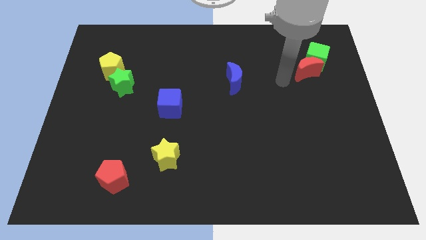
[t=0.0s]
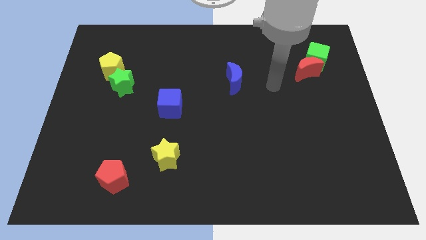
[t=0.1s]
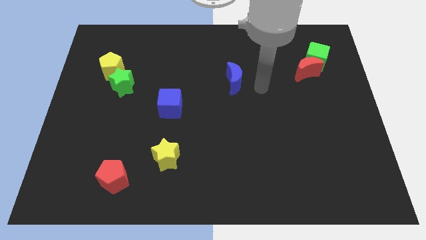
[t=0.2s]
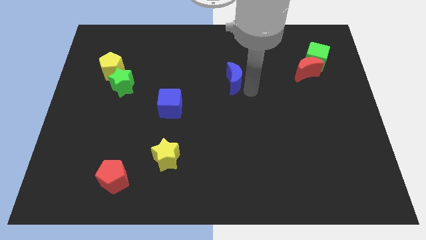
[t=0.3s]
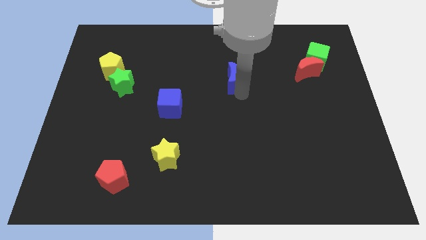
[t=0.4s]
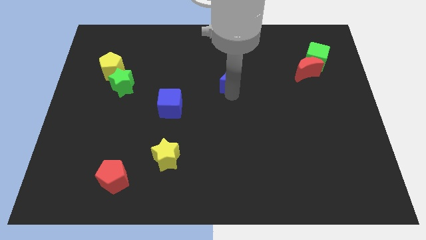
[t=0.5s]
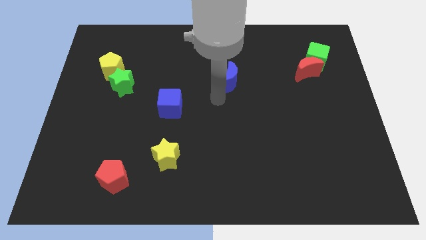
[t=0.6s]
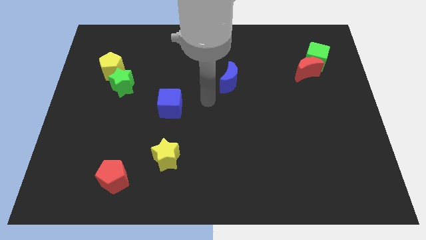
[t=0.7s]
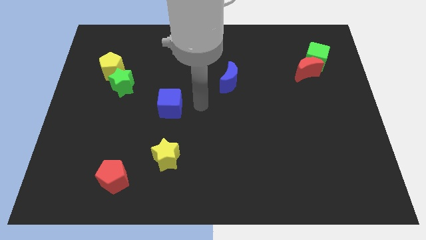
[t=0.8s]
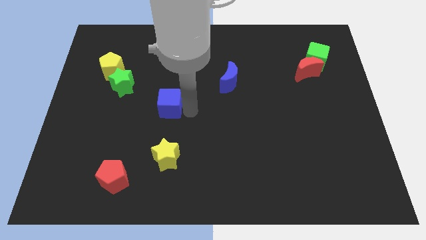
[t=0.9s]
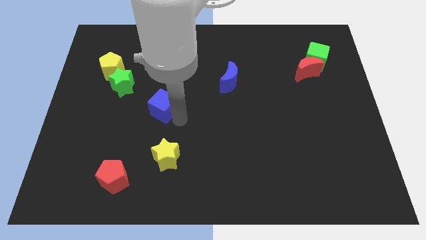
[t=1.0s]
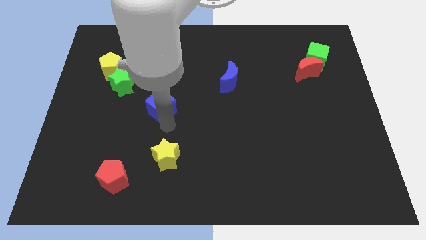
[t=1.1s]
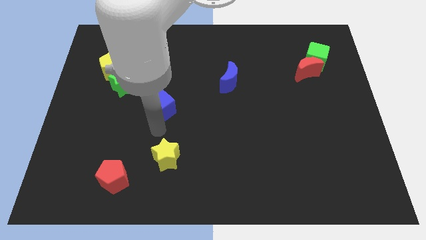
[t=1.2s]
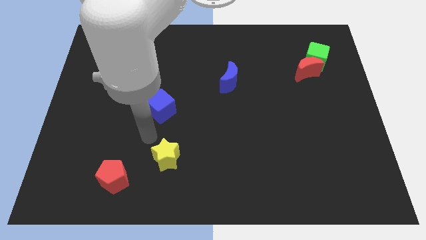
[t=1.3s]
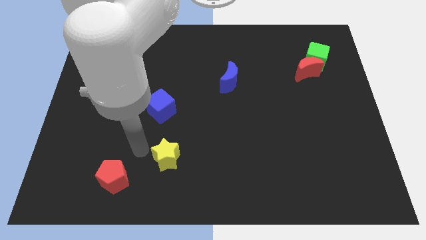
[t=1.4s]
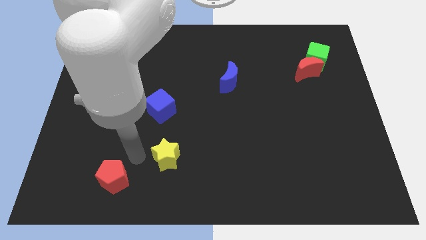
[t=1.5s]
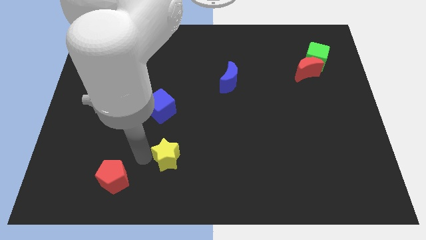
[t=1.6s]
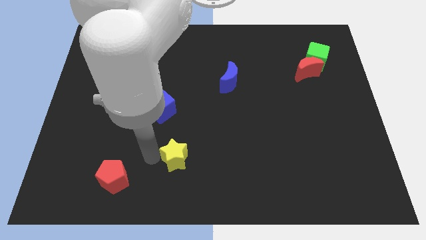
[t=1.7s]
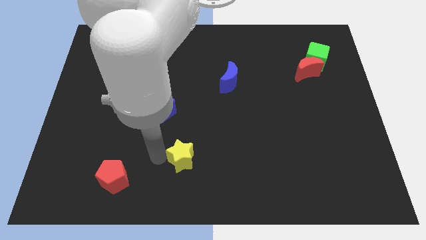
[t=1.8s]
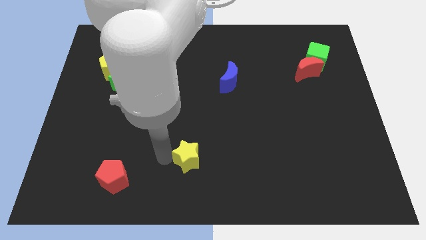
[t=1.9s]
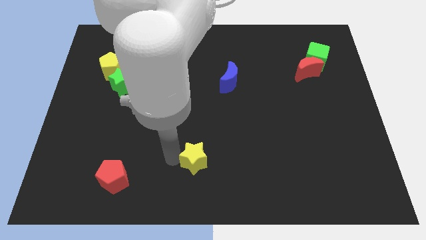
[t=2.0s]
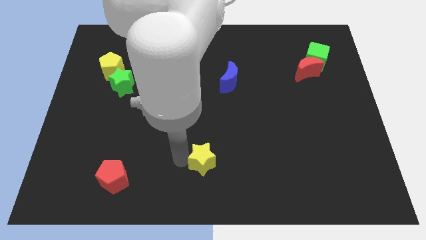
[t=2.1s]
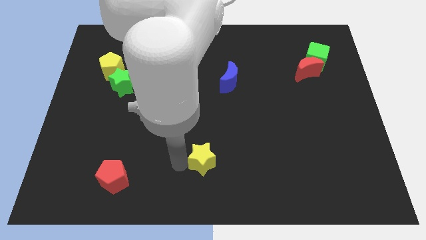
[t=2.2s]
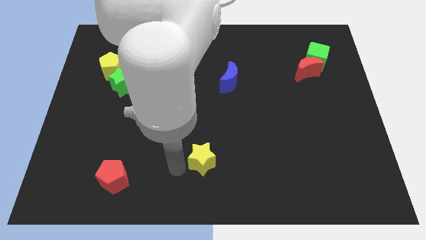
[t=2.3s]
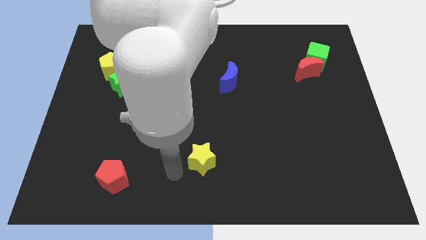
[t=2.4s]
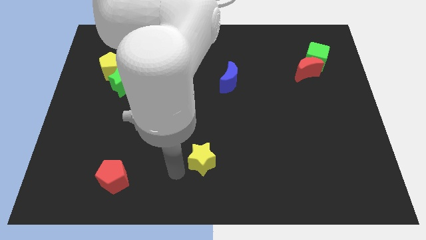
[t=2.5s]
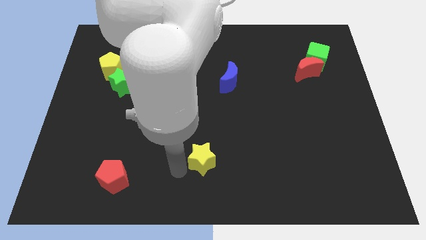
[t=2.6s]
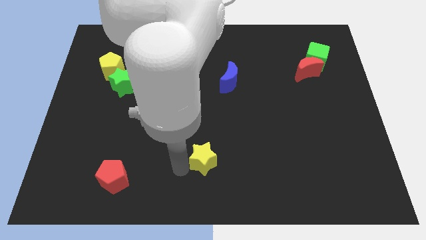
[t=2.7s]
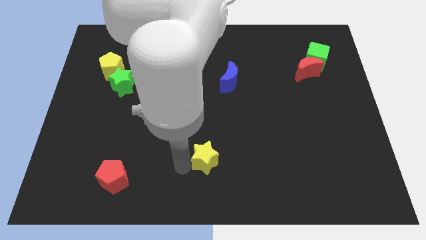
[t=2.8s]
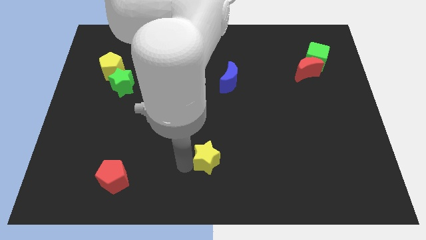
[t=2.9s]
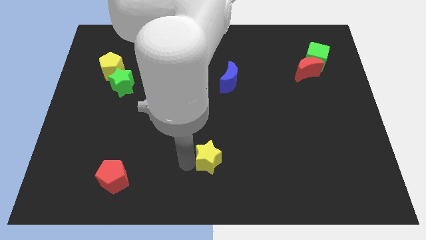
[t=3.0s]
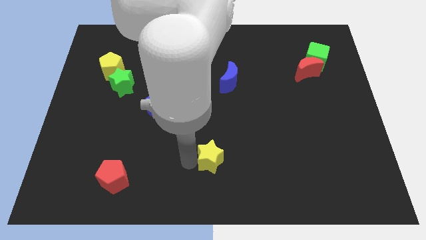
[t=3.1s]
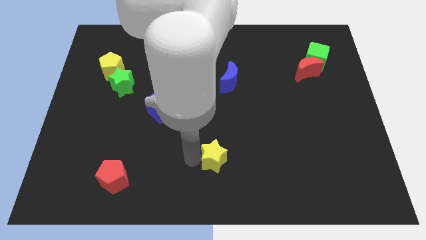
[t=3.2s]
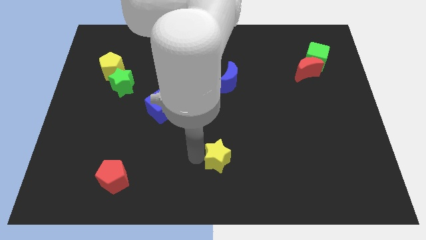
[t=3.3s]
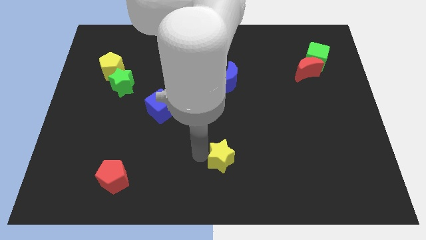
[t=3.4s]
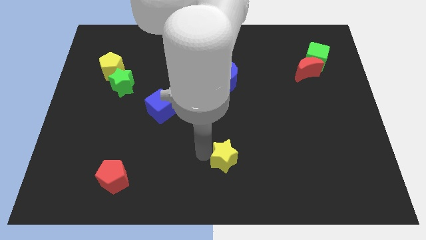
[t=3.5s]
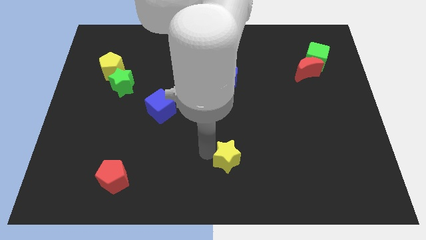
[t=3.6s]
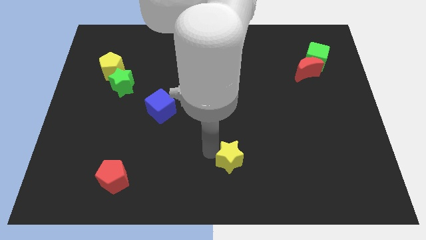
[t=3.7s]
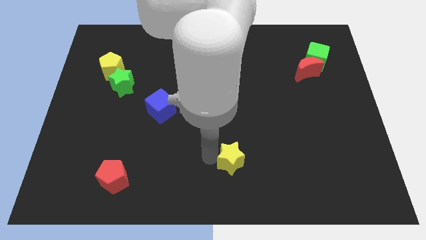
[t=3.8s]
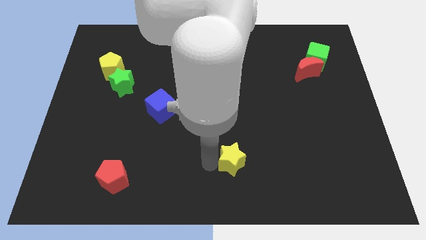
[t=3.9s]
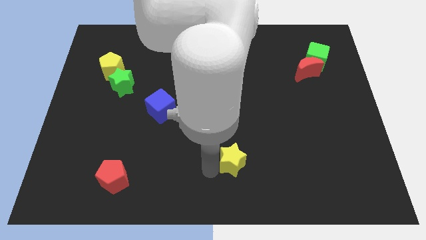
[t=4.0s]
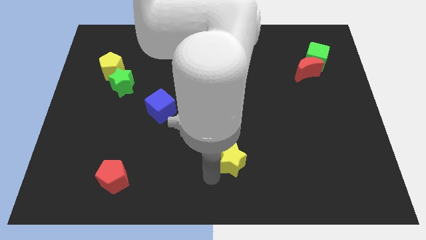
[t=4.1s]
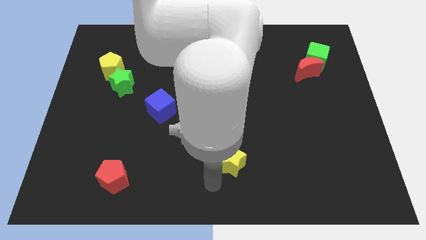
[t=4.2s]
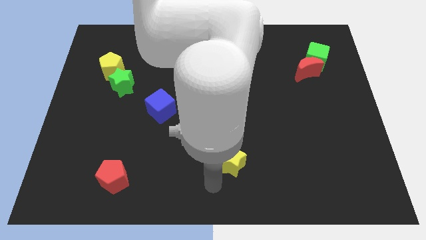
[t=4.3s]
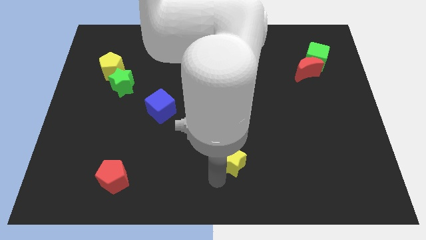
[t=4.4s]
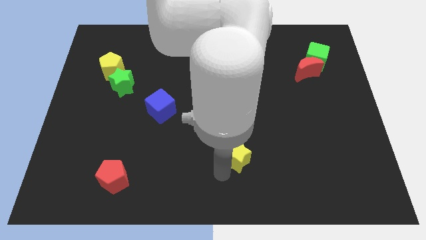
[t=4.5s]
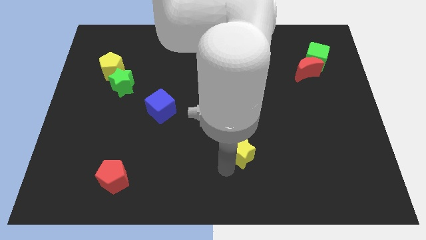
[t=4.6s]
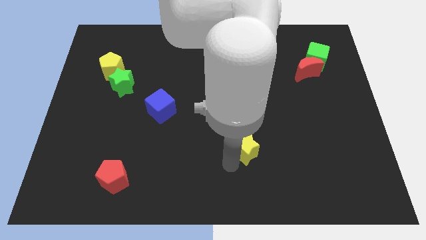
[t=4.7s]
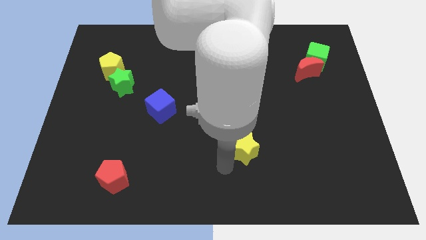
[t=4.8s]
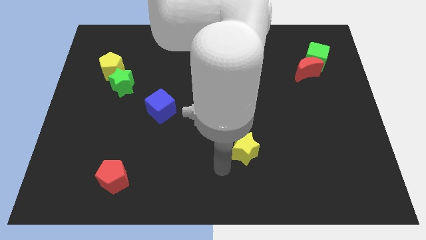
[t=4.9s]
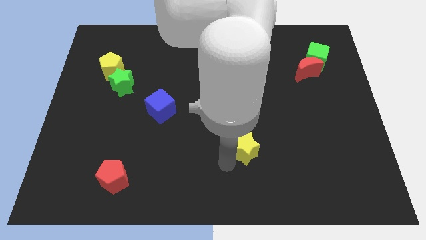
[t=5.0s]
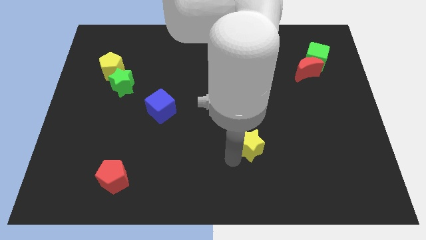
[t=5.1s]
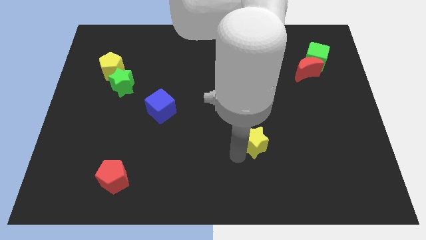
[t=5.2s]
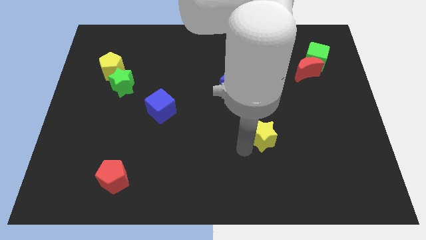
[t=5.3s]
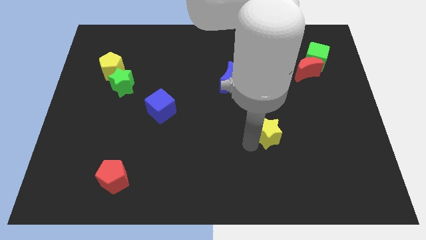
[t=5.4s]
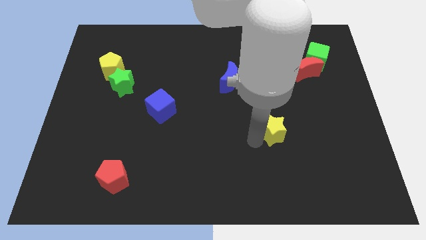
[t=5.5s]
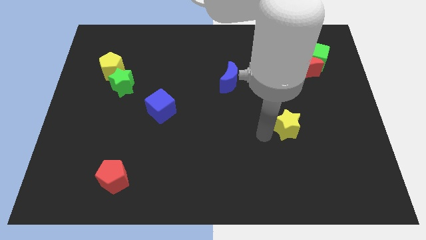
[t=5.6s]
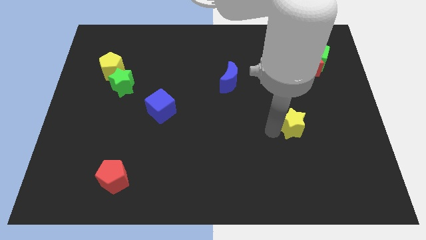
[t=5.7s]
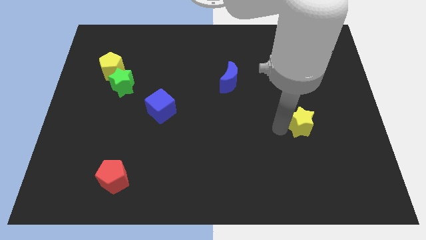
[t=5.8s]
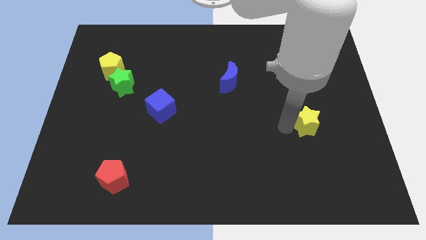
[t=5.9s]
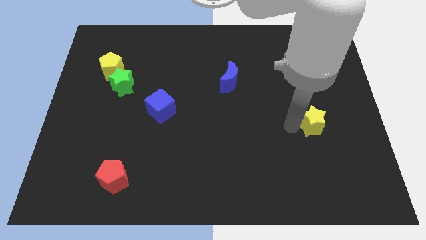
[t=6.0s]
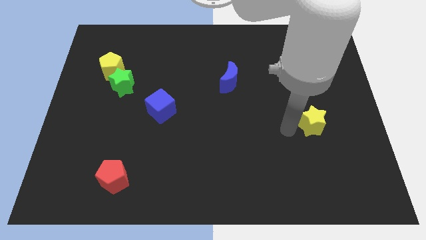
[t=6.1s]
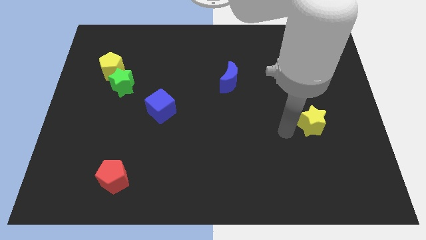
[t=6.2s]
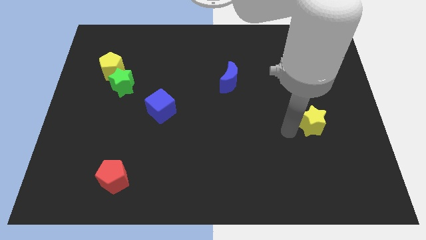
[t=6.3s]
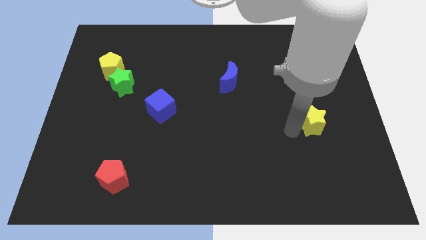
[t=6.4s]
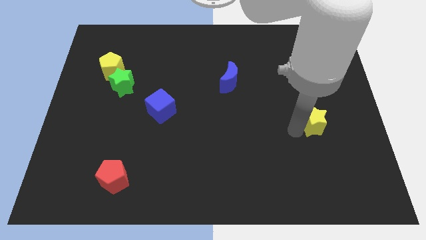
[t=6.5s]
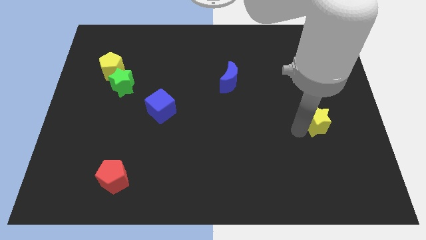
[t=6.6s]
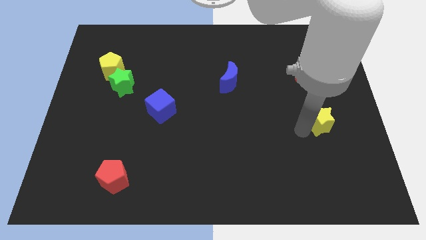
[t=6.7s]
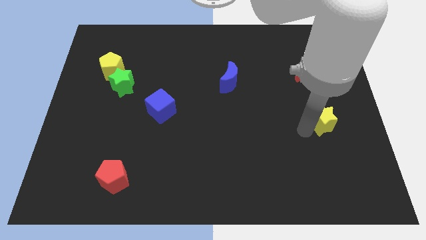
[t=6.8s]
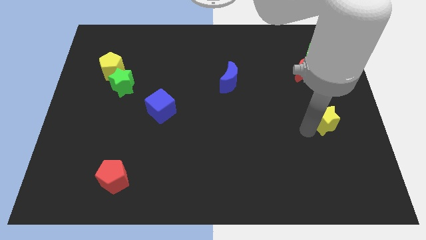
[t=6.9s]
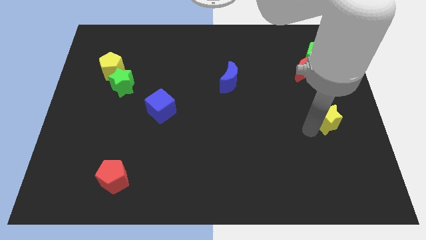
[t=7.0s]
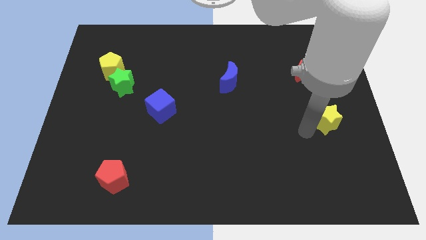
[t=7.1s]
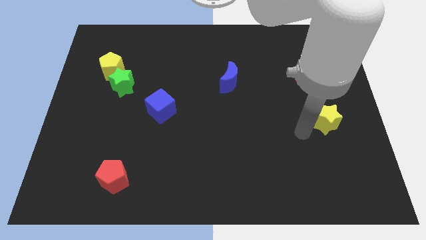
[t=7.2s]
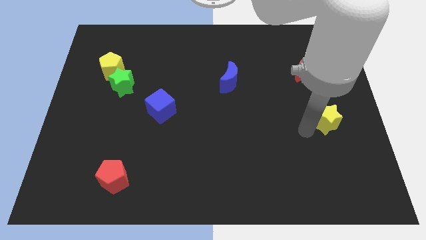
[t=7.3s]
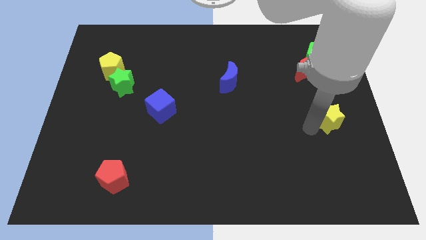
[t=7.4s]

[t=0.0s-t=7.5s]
slide the yellow star to the right side
